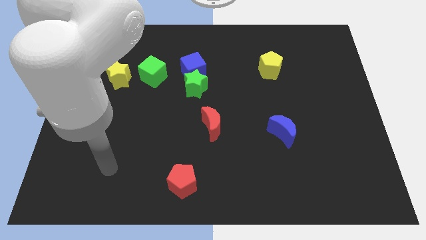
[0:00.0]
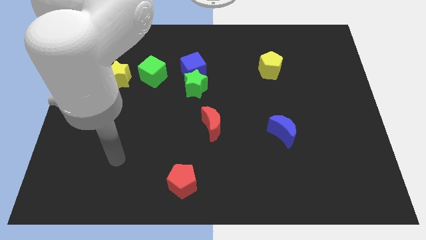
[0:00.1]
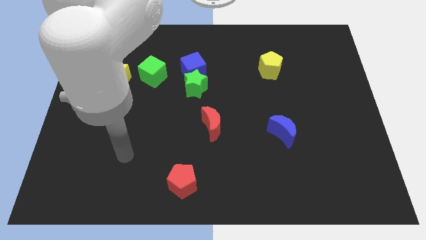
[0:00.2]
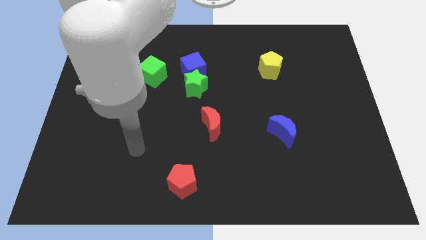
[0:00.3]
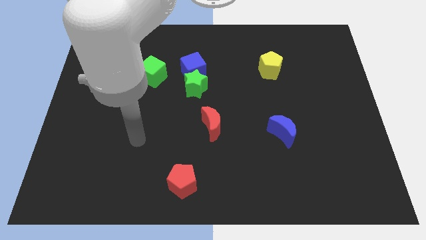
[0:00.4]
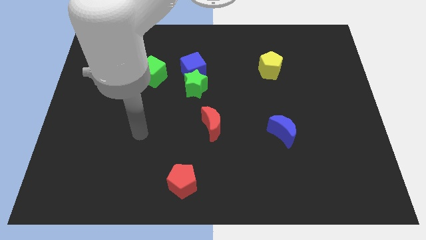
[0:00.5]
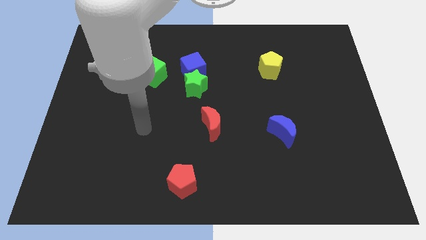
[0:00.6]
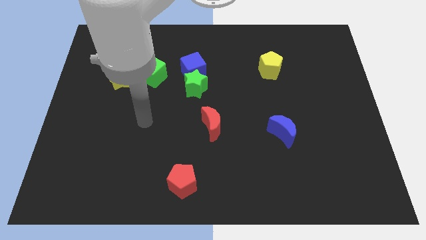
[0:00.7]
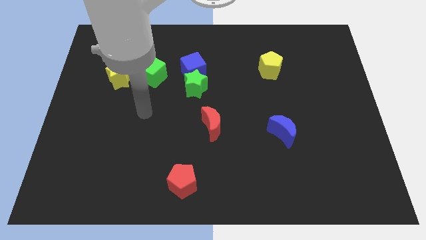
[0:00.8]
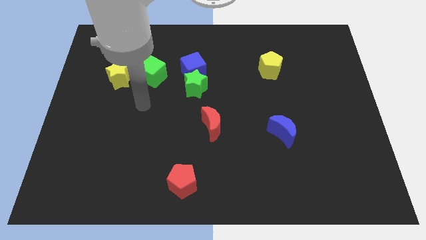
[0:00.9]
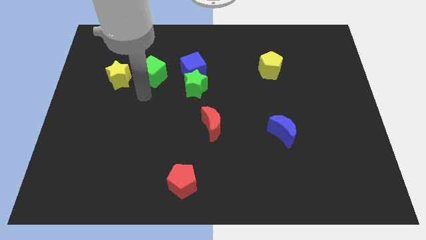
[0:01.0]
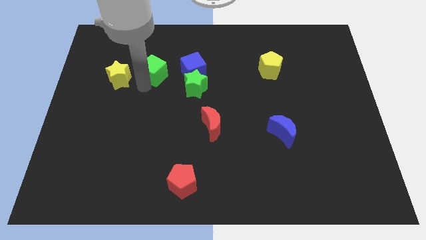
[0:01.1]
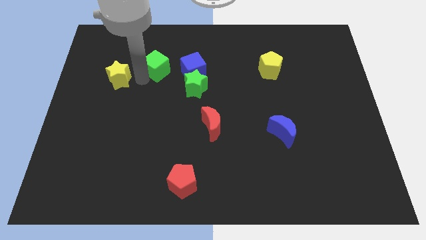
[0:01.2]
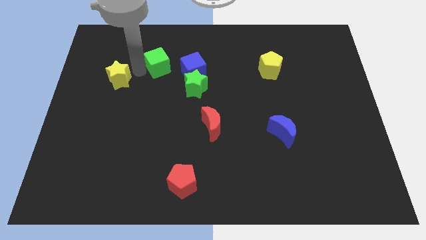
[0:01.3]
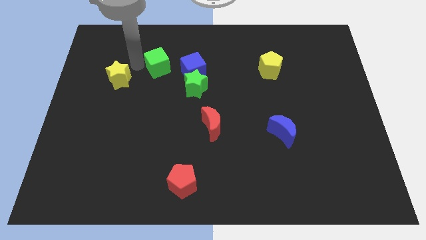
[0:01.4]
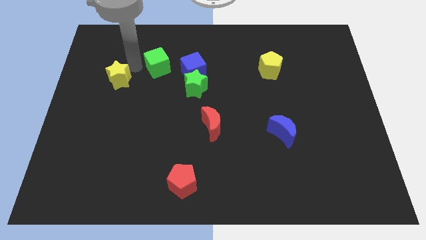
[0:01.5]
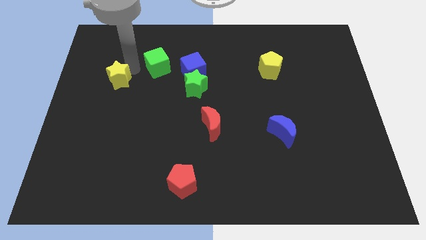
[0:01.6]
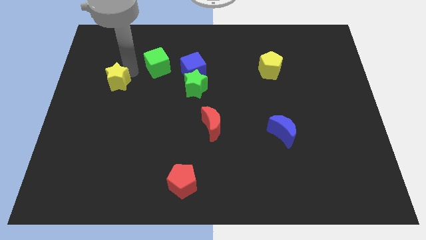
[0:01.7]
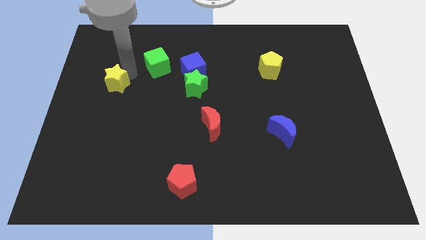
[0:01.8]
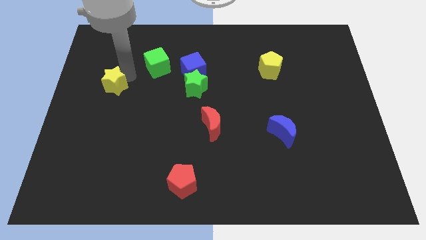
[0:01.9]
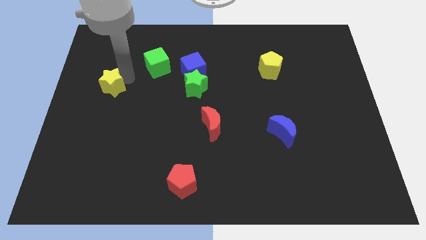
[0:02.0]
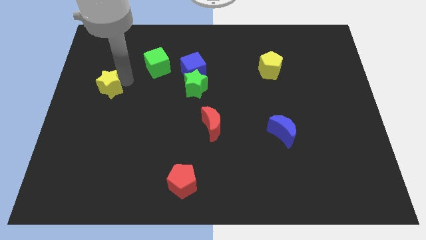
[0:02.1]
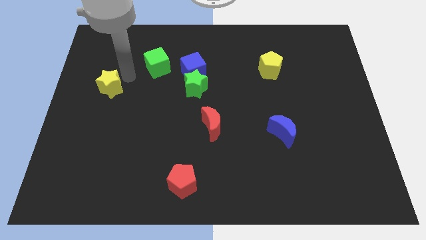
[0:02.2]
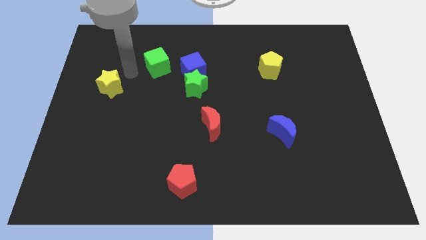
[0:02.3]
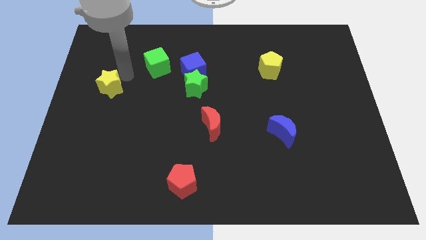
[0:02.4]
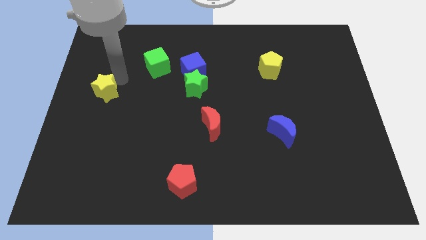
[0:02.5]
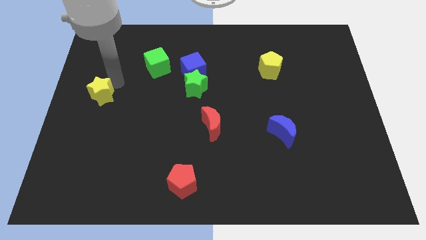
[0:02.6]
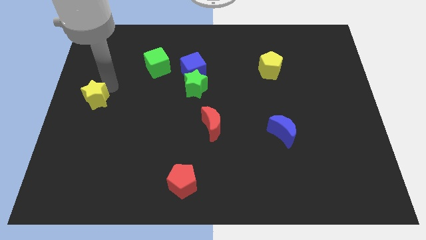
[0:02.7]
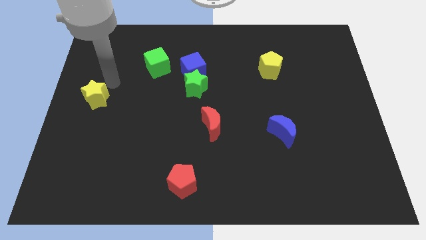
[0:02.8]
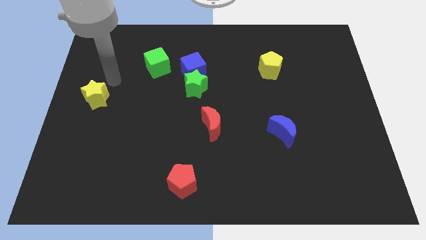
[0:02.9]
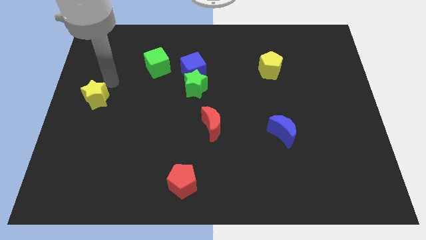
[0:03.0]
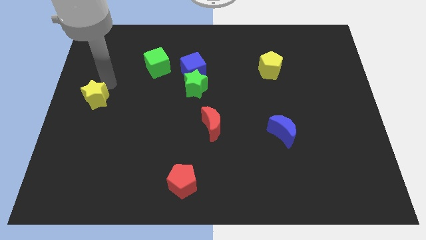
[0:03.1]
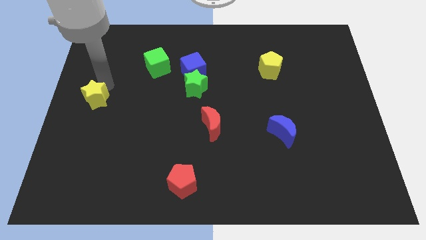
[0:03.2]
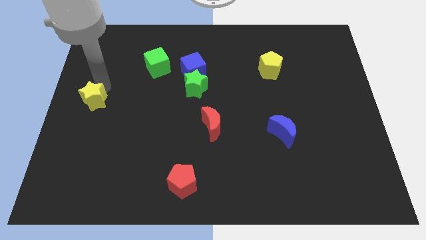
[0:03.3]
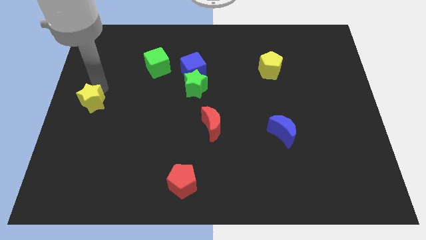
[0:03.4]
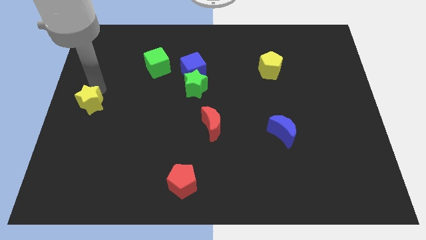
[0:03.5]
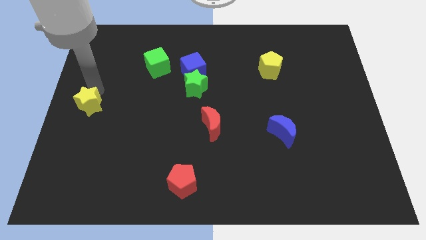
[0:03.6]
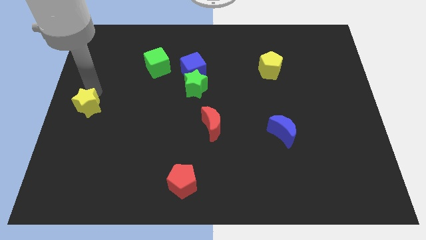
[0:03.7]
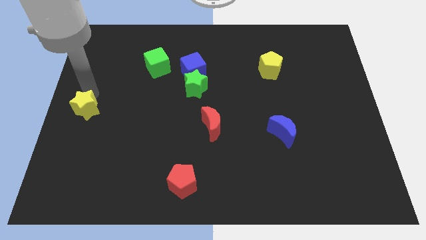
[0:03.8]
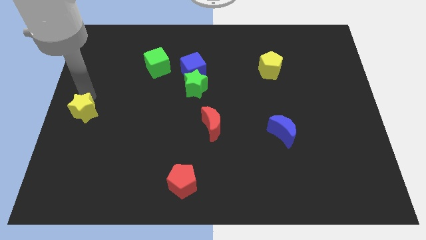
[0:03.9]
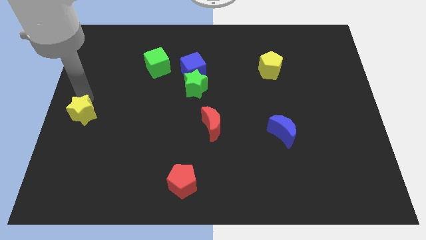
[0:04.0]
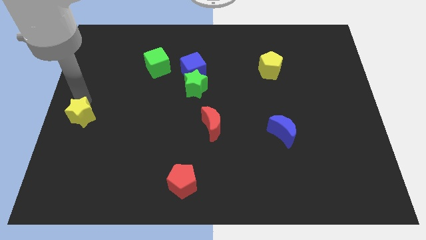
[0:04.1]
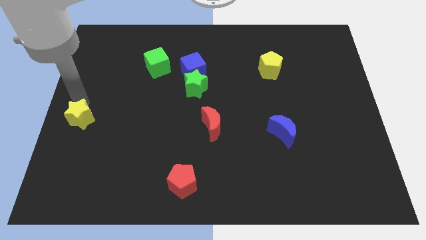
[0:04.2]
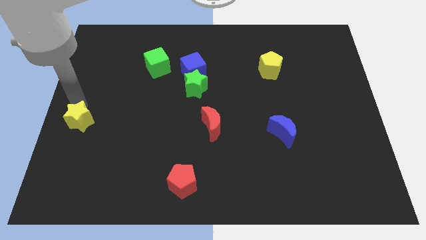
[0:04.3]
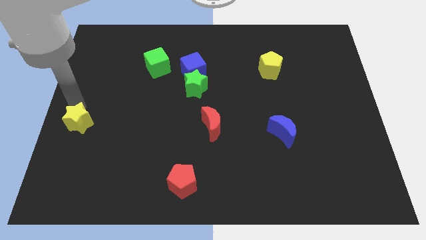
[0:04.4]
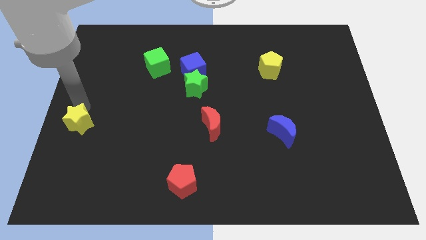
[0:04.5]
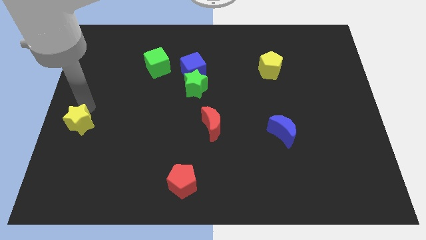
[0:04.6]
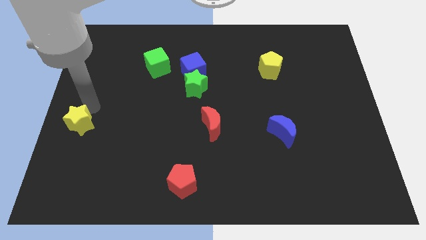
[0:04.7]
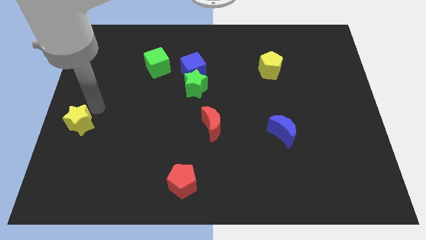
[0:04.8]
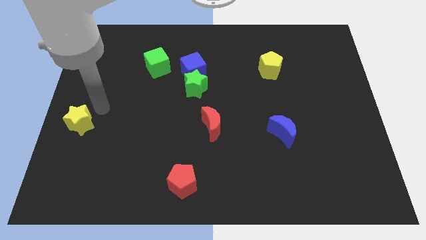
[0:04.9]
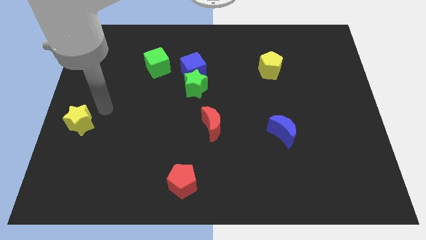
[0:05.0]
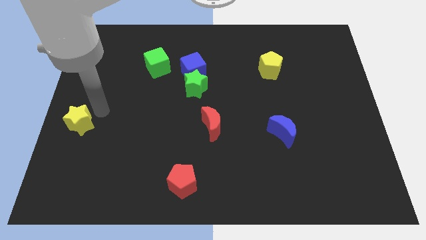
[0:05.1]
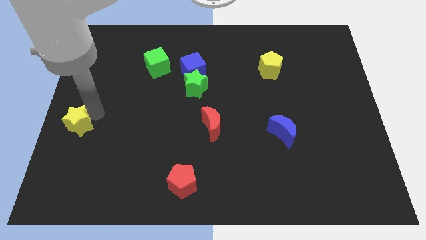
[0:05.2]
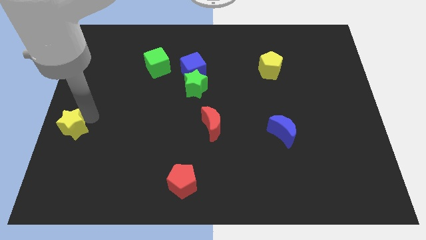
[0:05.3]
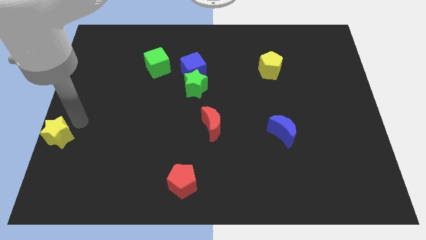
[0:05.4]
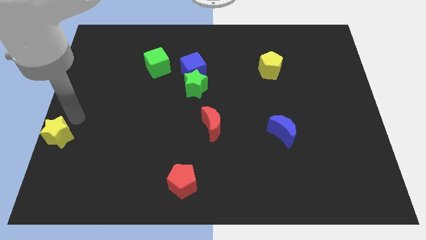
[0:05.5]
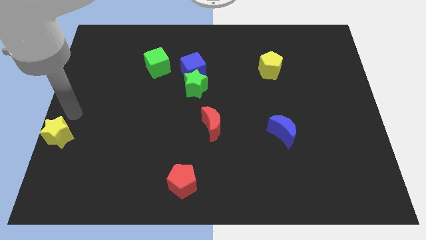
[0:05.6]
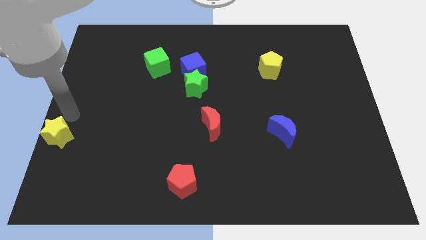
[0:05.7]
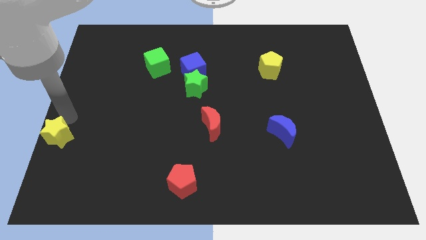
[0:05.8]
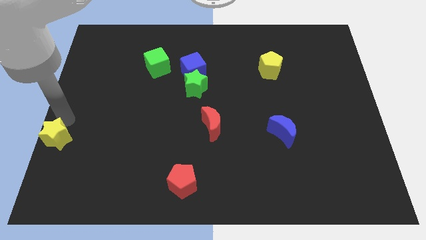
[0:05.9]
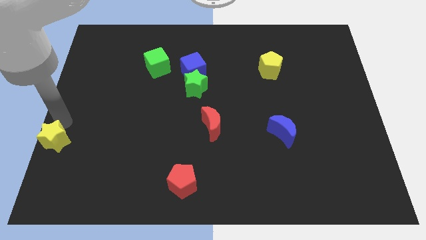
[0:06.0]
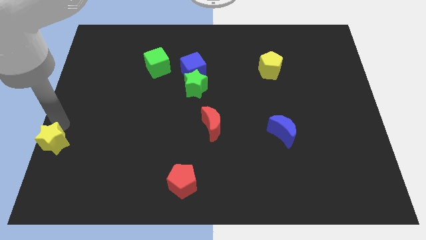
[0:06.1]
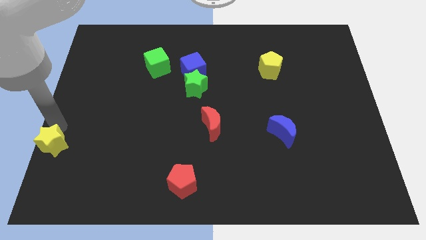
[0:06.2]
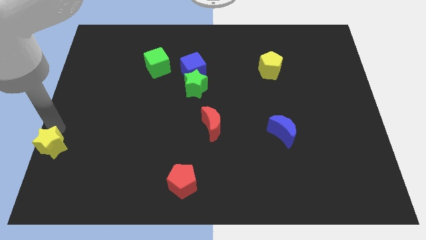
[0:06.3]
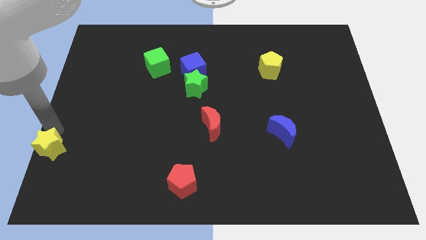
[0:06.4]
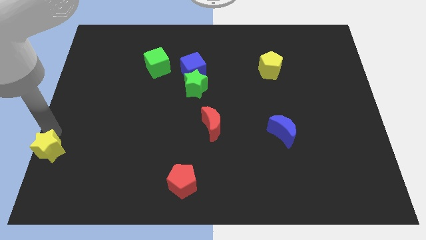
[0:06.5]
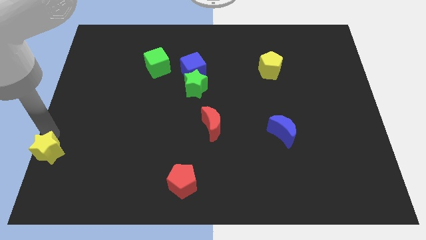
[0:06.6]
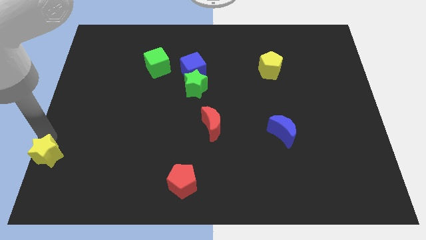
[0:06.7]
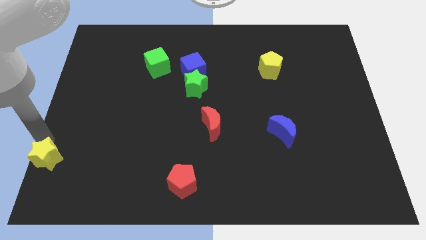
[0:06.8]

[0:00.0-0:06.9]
push the yellow star to the lower left corner

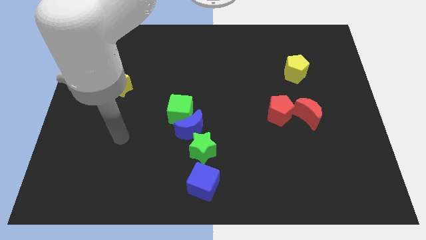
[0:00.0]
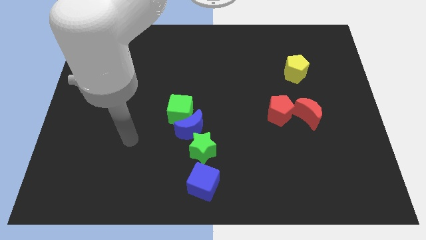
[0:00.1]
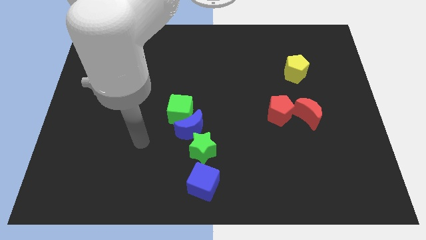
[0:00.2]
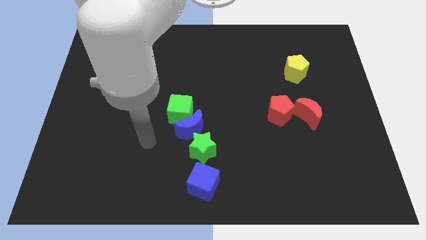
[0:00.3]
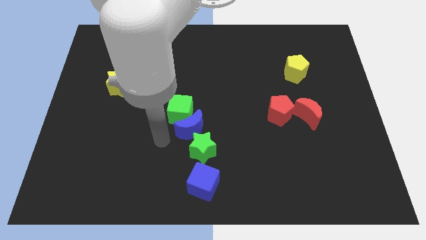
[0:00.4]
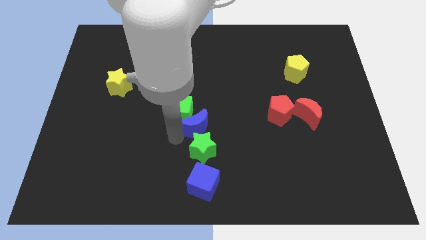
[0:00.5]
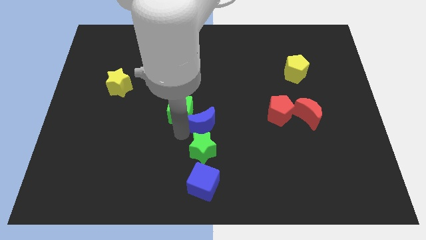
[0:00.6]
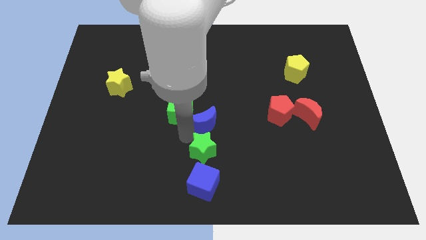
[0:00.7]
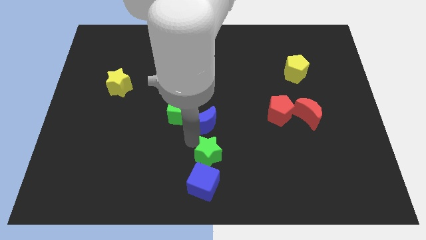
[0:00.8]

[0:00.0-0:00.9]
push the green star to the bottom
